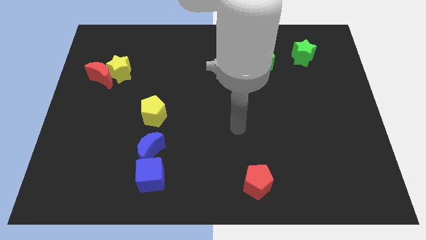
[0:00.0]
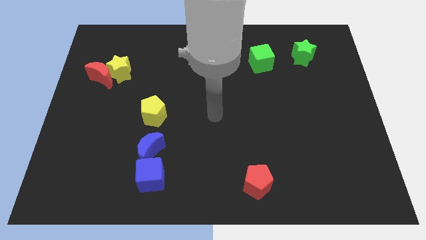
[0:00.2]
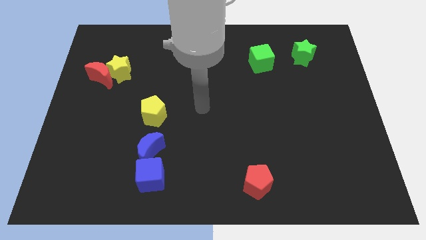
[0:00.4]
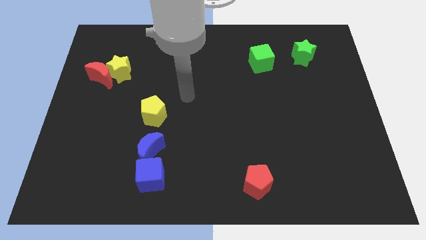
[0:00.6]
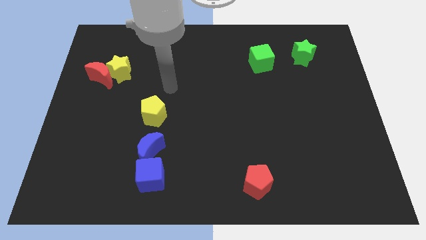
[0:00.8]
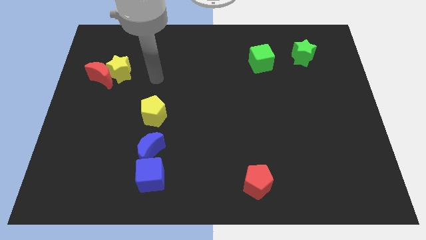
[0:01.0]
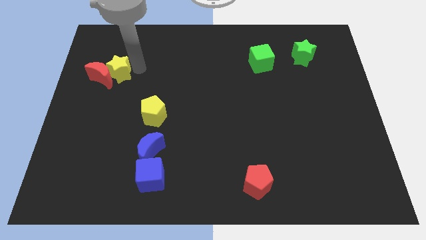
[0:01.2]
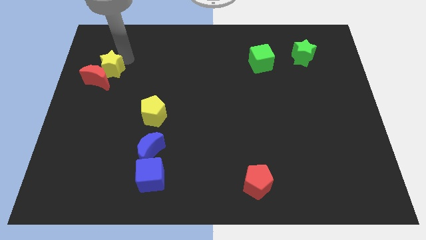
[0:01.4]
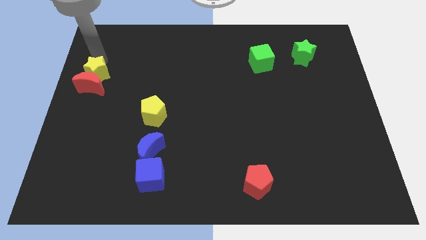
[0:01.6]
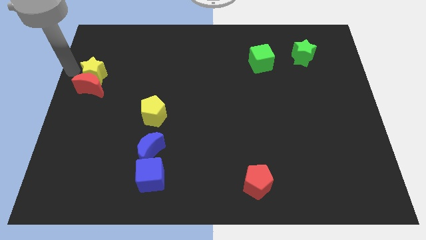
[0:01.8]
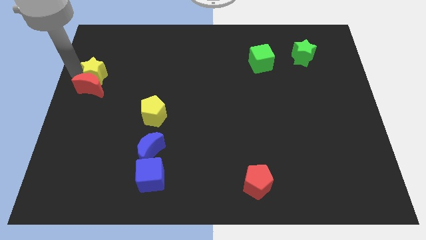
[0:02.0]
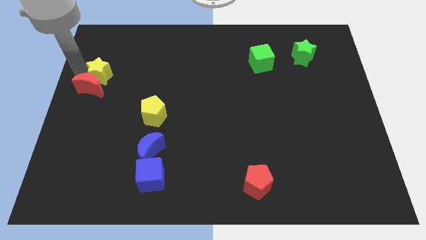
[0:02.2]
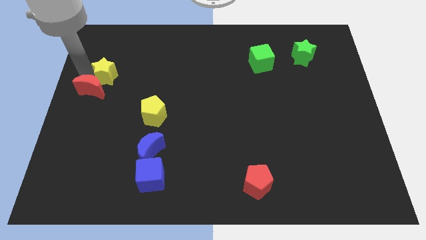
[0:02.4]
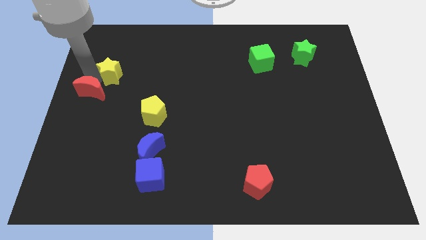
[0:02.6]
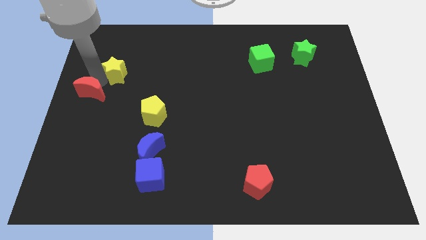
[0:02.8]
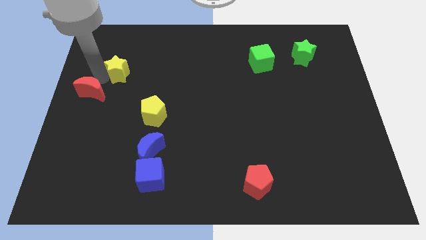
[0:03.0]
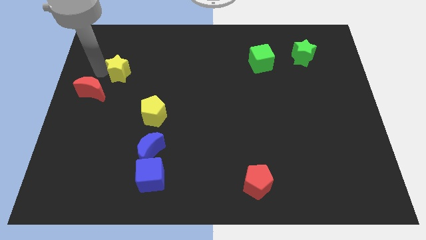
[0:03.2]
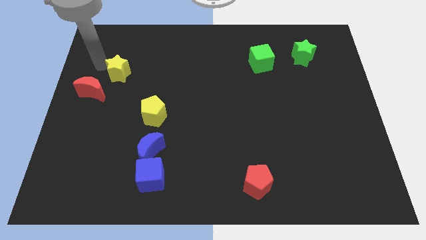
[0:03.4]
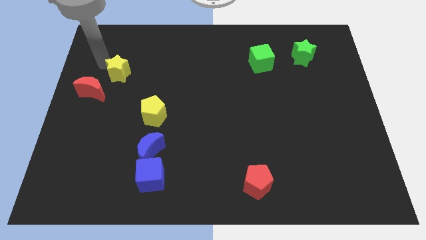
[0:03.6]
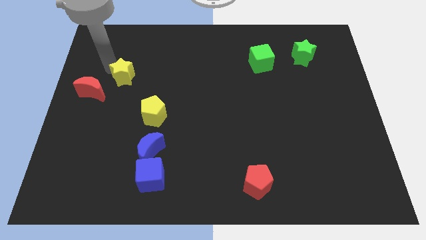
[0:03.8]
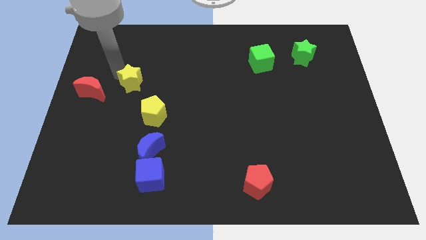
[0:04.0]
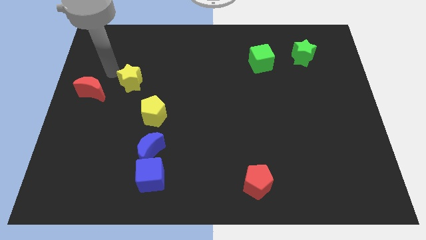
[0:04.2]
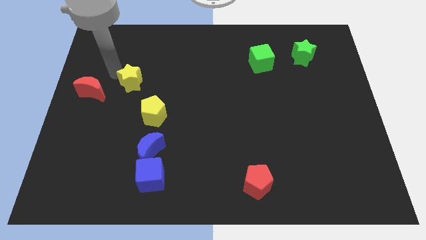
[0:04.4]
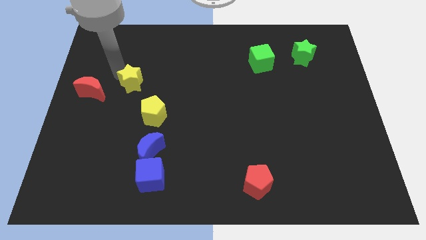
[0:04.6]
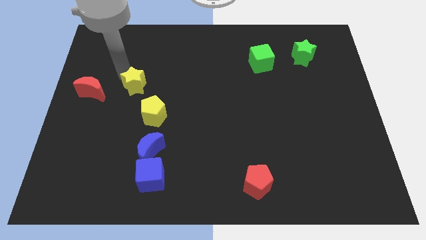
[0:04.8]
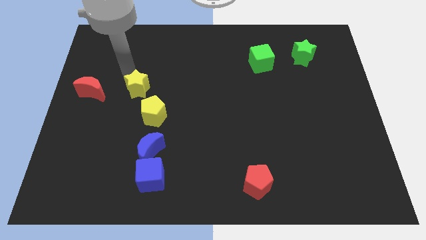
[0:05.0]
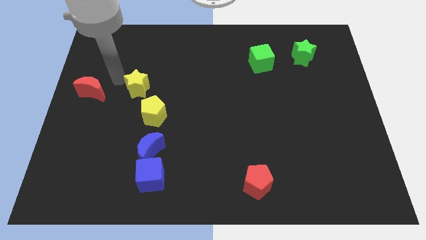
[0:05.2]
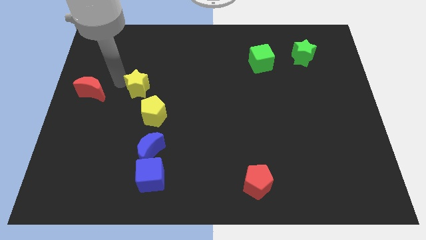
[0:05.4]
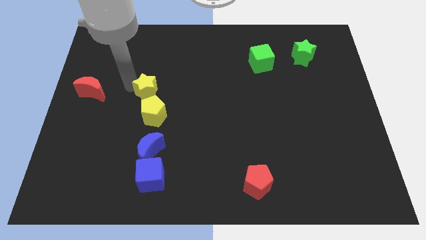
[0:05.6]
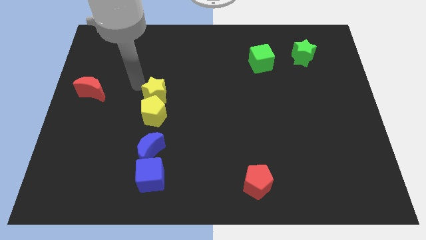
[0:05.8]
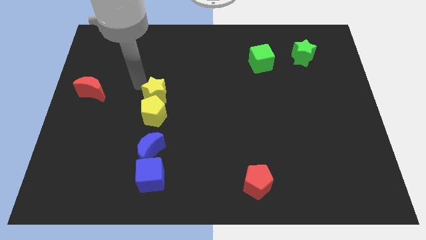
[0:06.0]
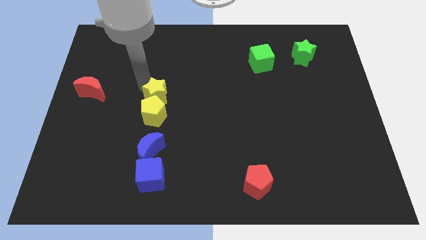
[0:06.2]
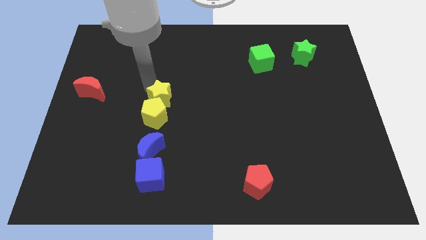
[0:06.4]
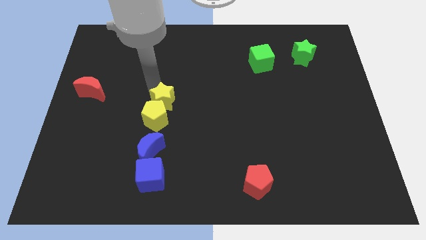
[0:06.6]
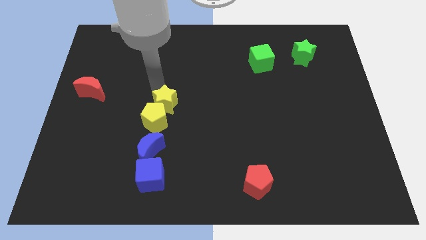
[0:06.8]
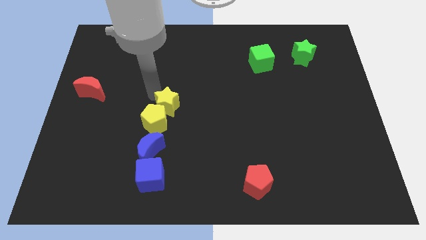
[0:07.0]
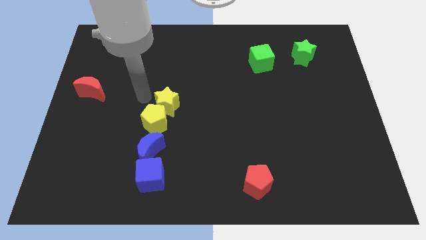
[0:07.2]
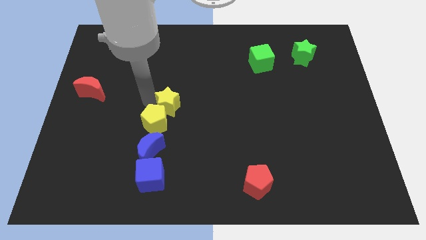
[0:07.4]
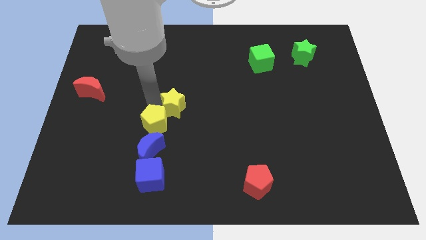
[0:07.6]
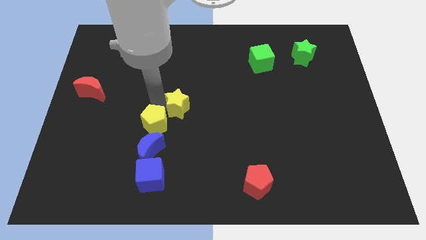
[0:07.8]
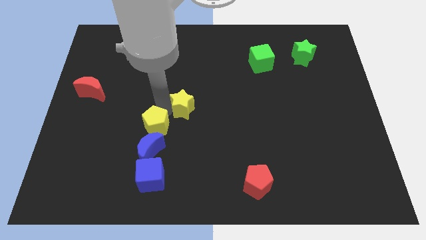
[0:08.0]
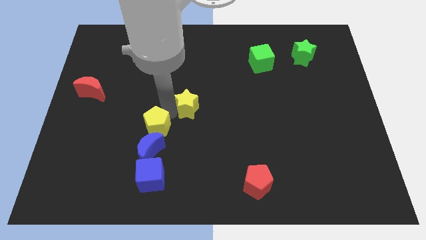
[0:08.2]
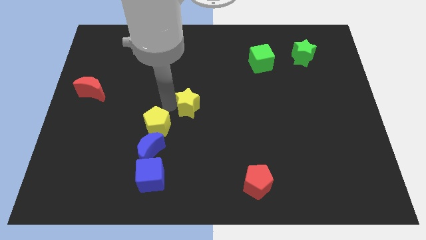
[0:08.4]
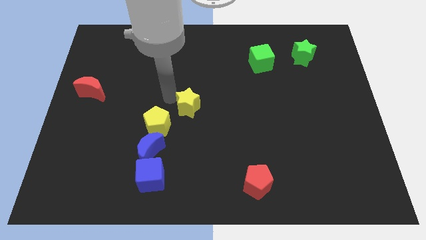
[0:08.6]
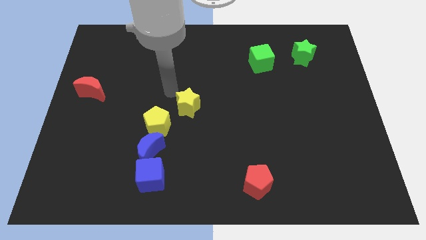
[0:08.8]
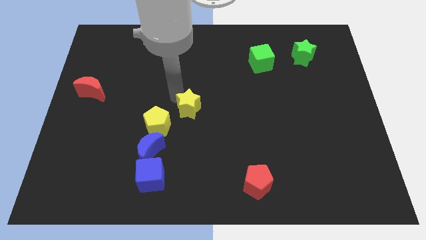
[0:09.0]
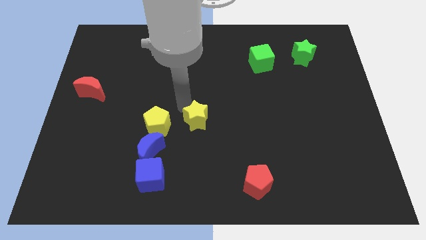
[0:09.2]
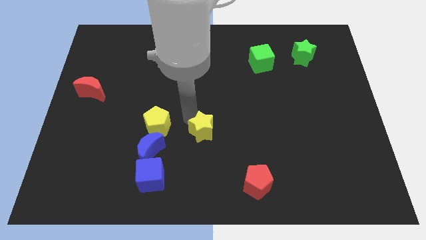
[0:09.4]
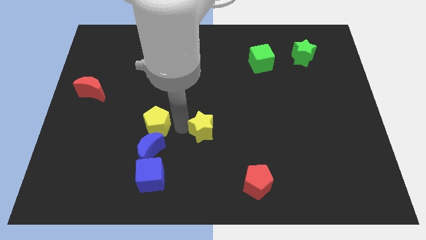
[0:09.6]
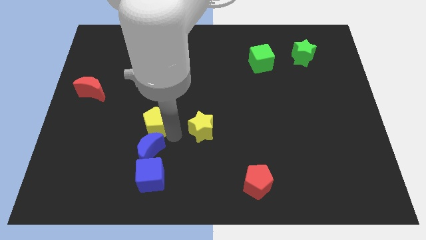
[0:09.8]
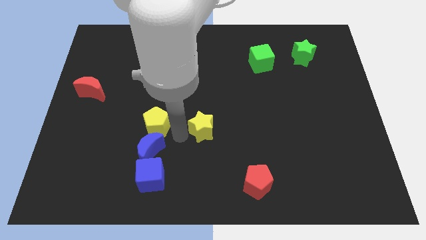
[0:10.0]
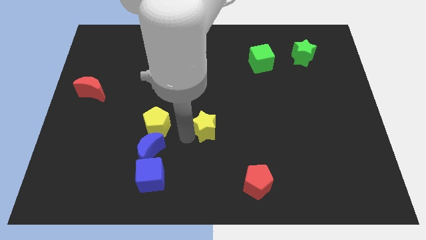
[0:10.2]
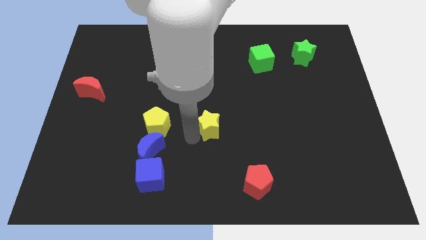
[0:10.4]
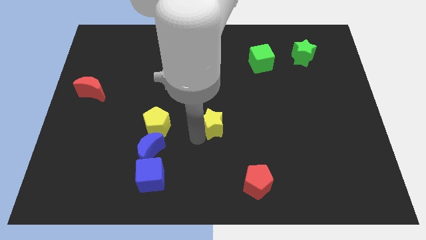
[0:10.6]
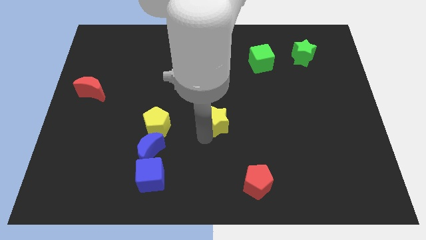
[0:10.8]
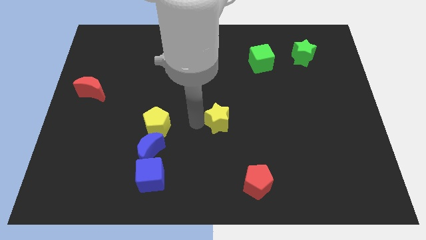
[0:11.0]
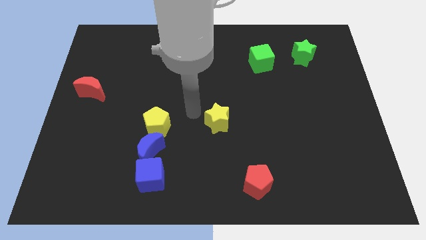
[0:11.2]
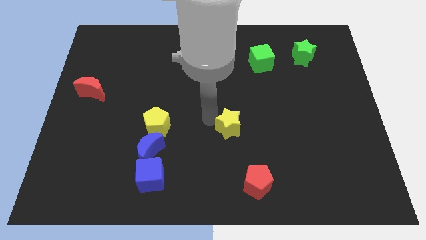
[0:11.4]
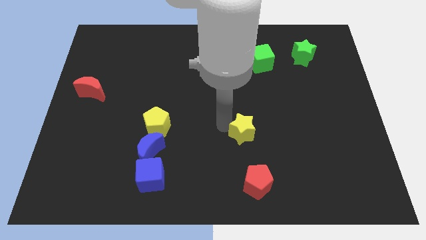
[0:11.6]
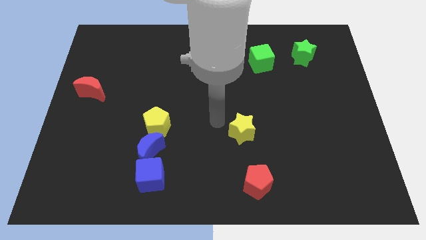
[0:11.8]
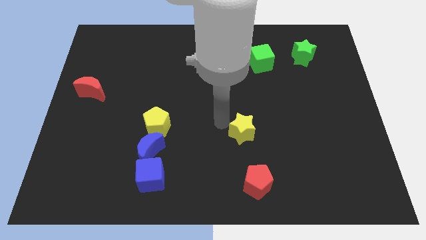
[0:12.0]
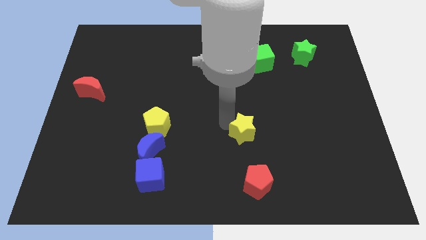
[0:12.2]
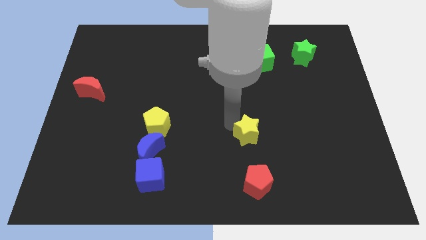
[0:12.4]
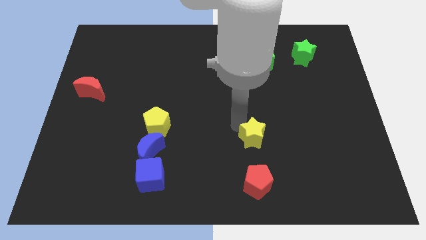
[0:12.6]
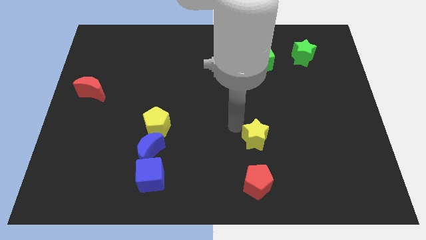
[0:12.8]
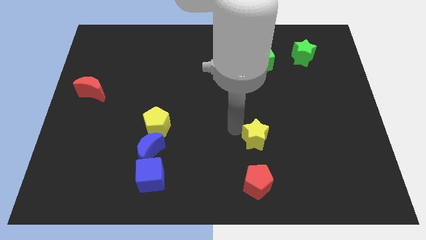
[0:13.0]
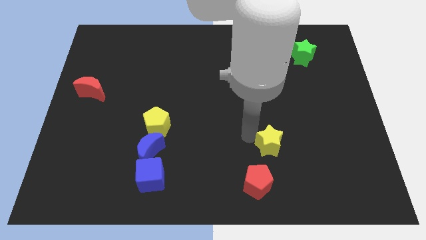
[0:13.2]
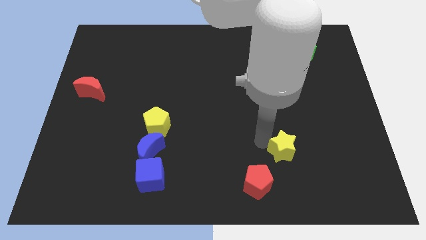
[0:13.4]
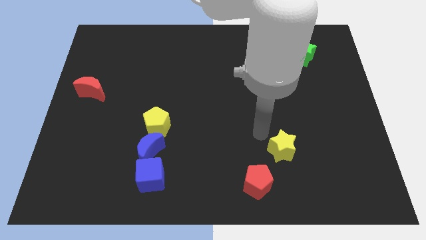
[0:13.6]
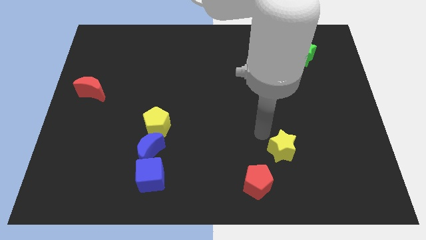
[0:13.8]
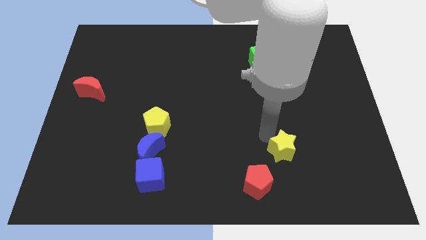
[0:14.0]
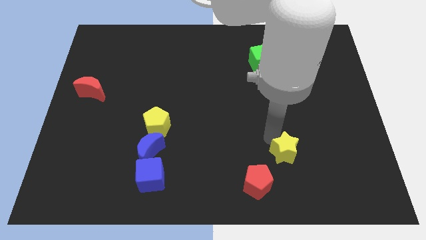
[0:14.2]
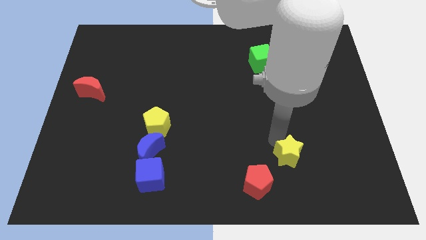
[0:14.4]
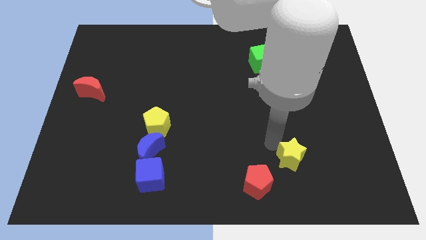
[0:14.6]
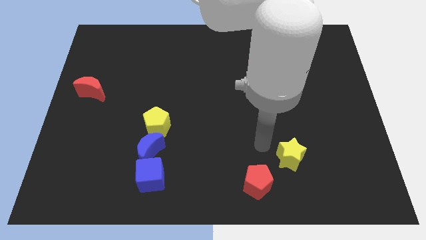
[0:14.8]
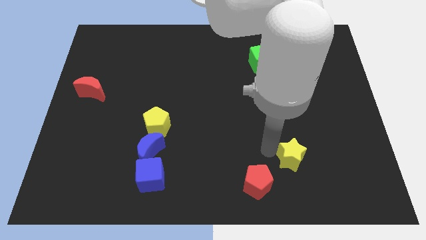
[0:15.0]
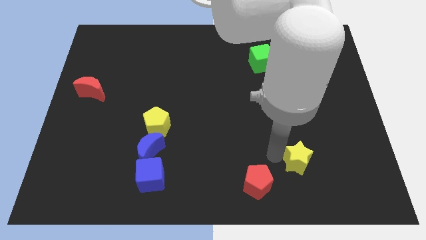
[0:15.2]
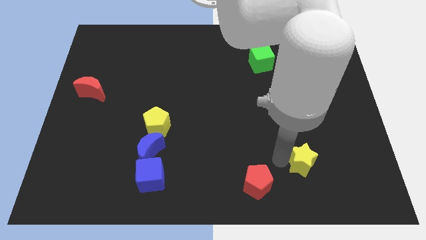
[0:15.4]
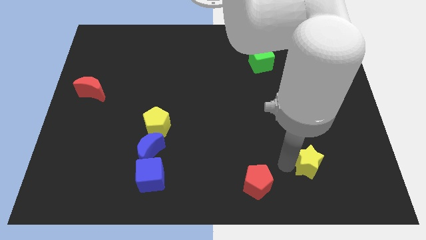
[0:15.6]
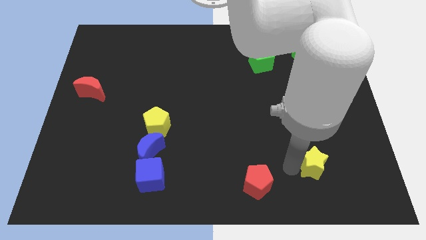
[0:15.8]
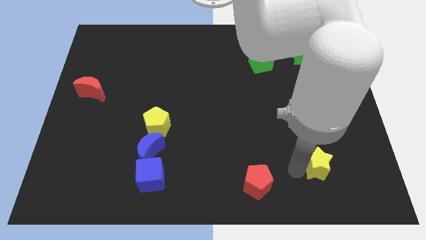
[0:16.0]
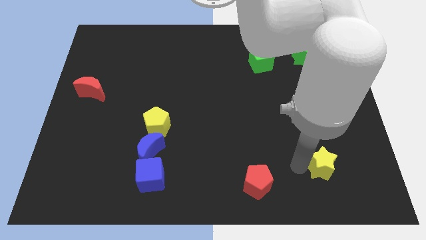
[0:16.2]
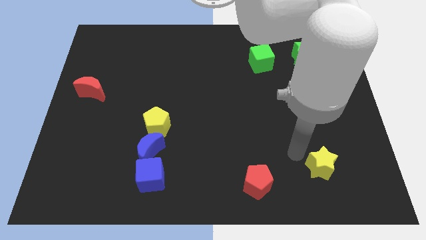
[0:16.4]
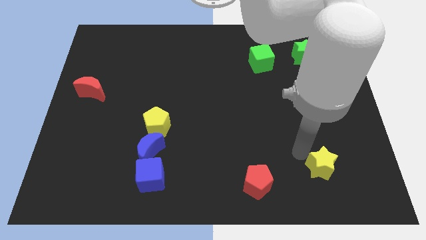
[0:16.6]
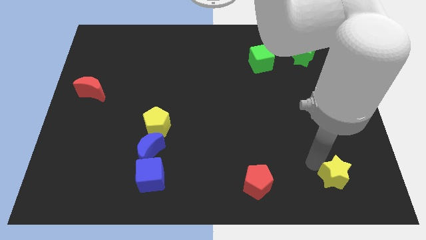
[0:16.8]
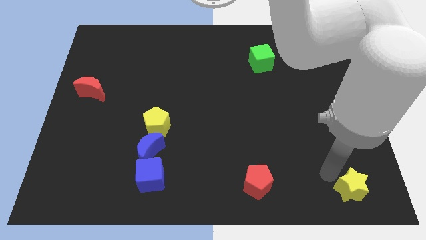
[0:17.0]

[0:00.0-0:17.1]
move the yellow star to the bottom right
